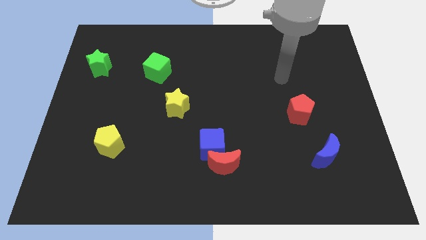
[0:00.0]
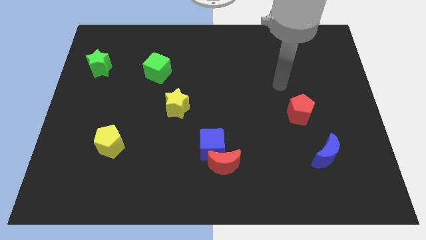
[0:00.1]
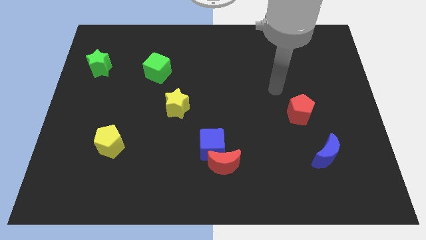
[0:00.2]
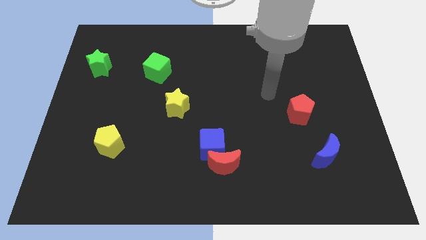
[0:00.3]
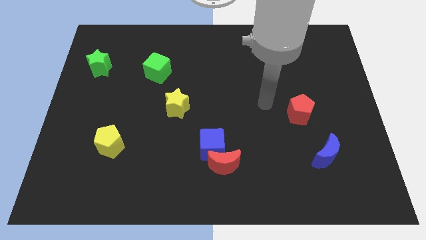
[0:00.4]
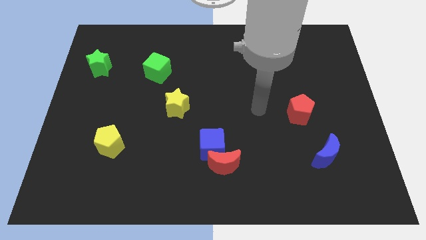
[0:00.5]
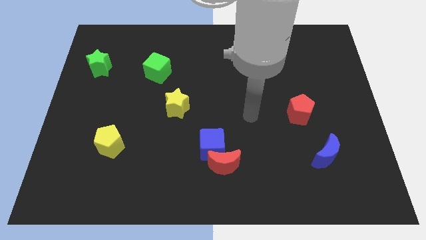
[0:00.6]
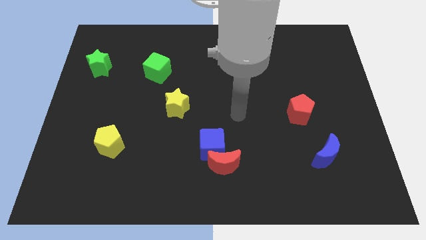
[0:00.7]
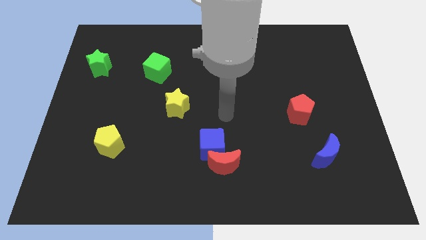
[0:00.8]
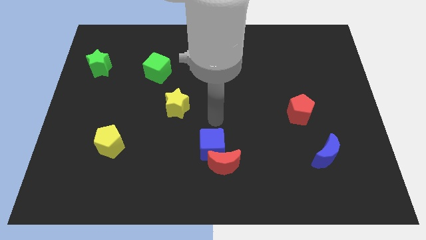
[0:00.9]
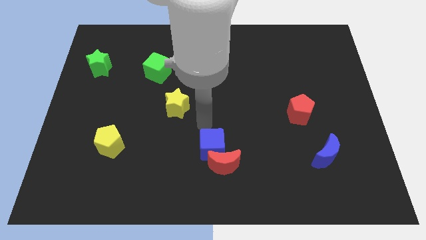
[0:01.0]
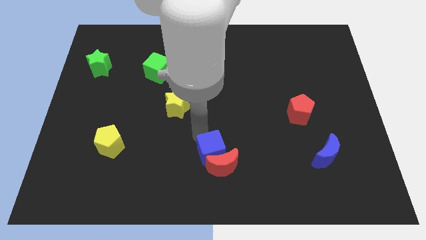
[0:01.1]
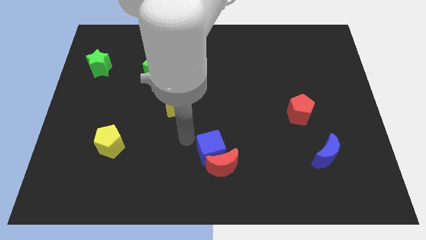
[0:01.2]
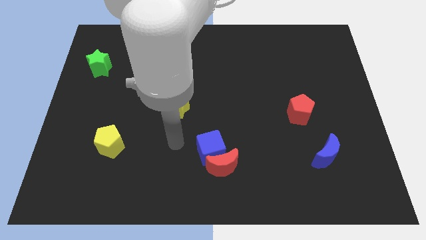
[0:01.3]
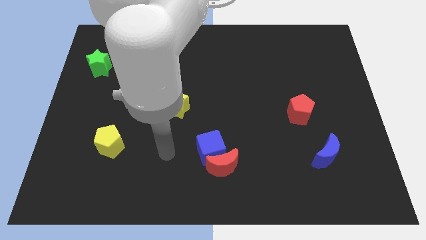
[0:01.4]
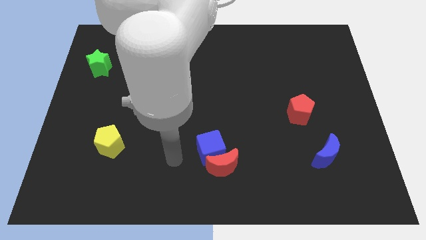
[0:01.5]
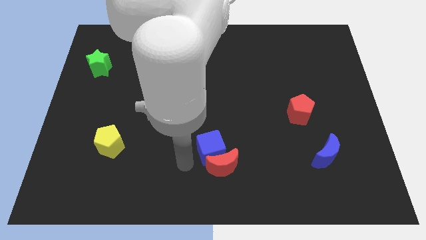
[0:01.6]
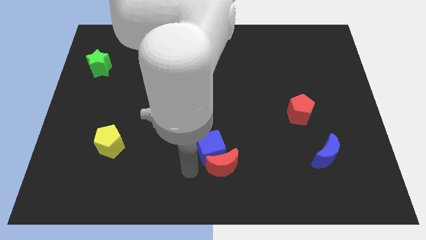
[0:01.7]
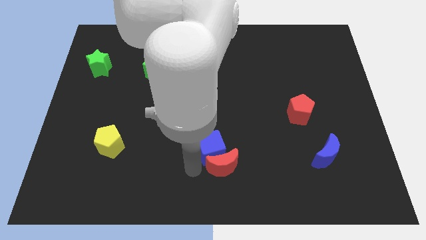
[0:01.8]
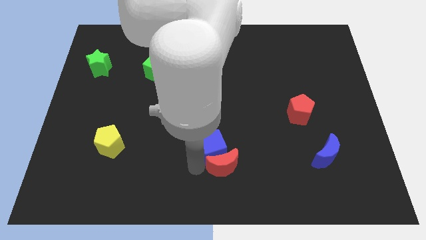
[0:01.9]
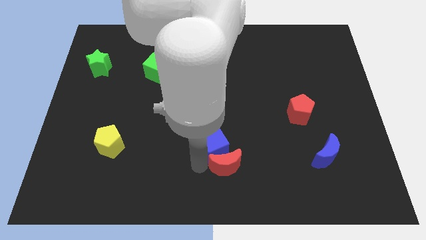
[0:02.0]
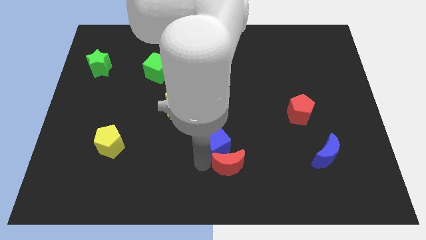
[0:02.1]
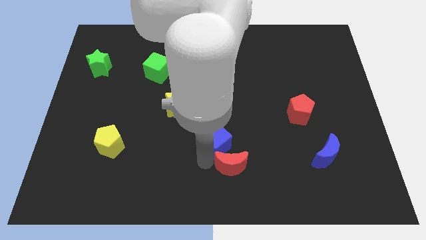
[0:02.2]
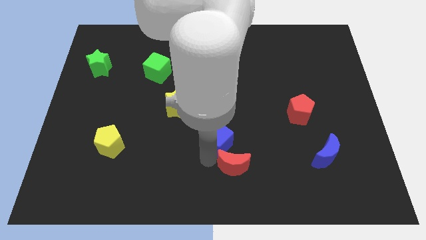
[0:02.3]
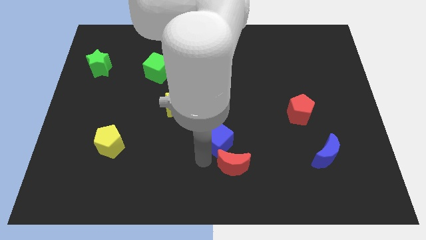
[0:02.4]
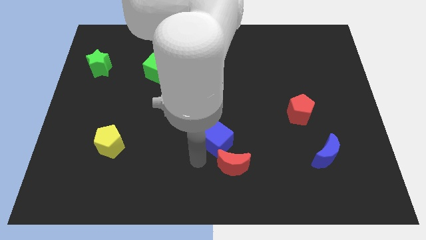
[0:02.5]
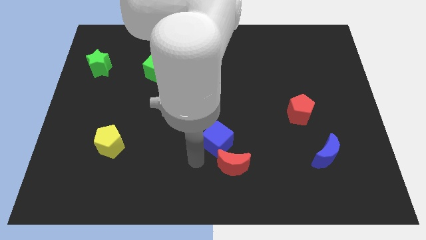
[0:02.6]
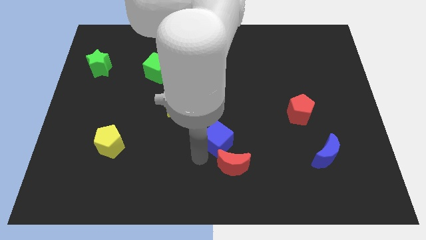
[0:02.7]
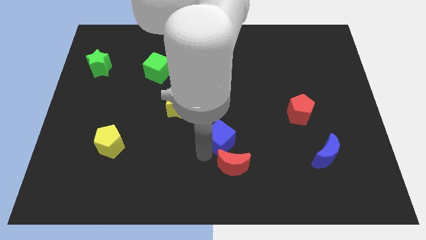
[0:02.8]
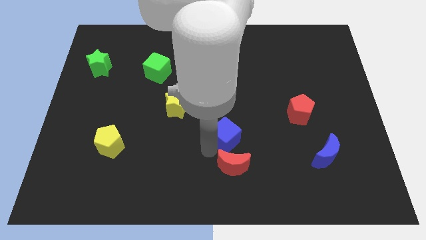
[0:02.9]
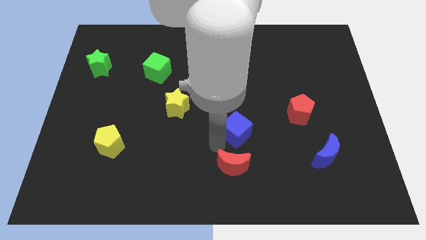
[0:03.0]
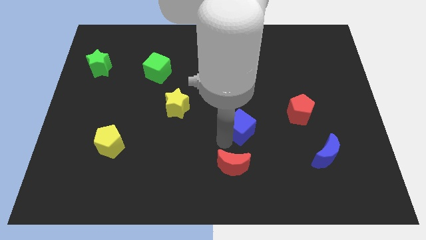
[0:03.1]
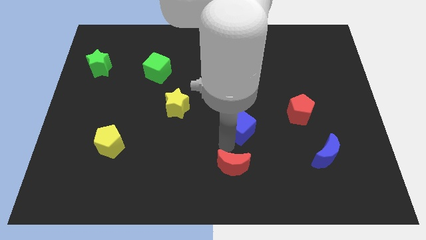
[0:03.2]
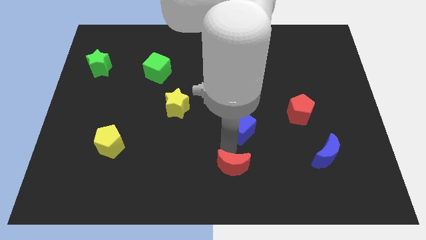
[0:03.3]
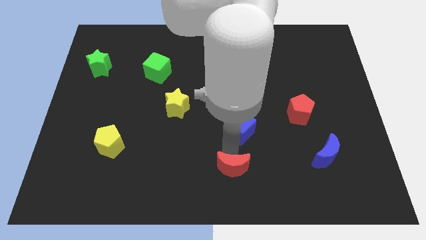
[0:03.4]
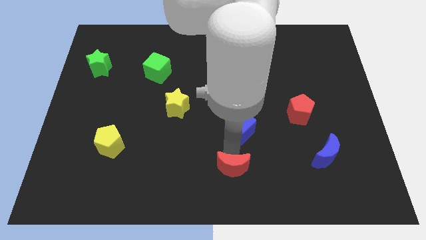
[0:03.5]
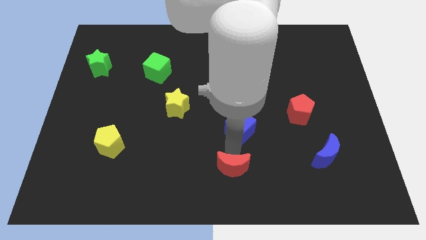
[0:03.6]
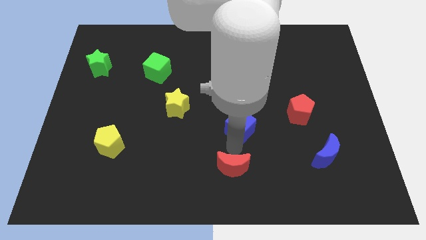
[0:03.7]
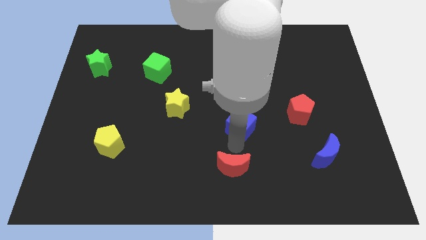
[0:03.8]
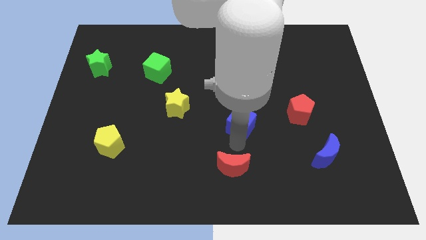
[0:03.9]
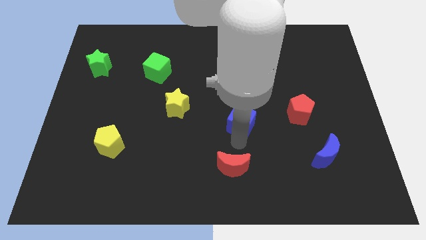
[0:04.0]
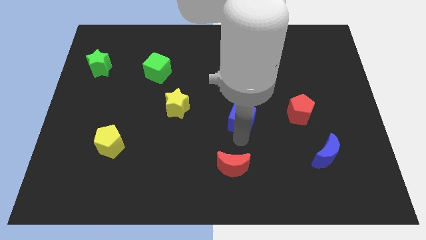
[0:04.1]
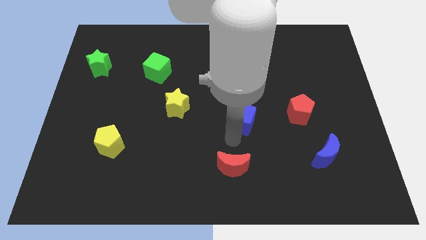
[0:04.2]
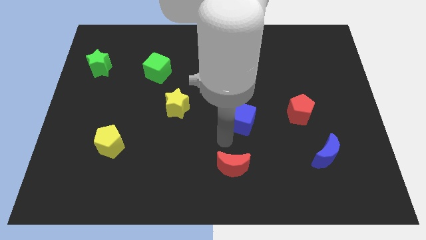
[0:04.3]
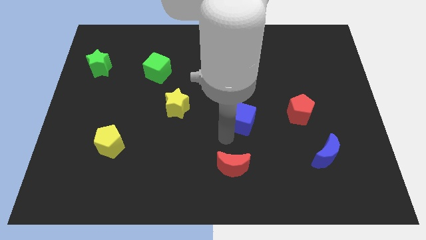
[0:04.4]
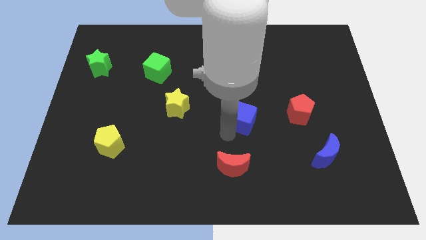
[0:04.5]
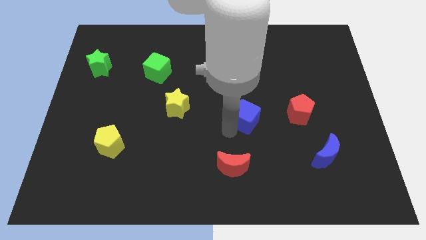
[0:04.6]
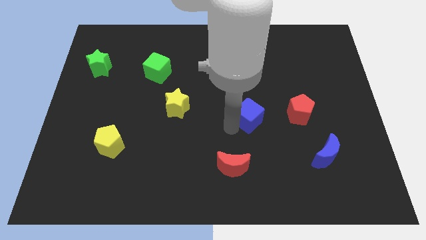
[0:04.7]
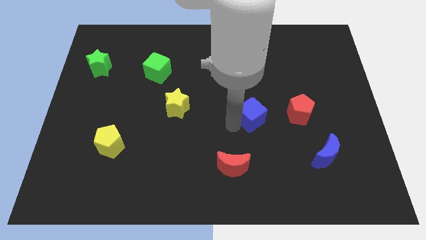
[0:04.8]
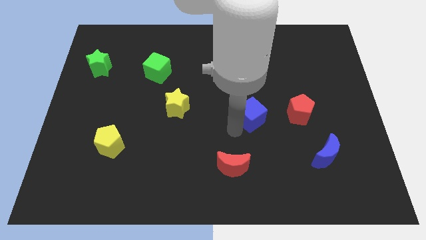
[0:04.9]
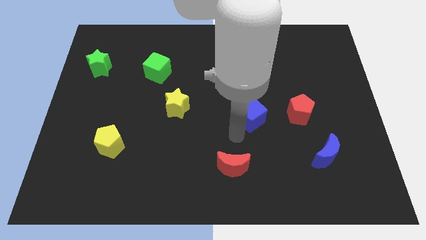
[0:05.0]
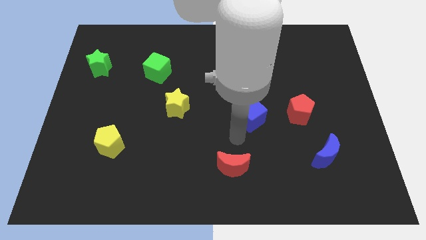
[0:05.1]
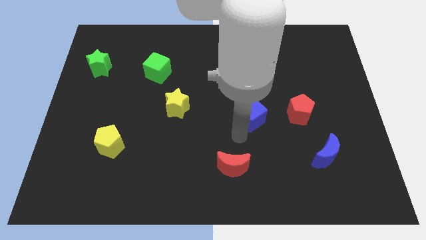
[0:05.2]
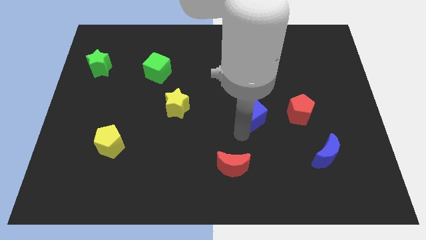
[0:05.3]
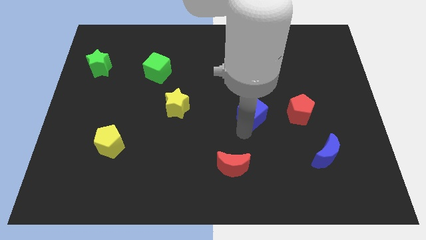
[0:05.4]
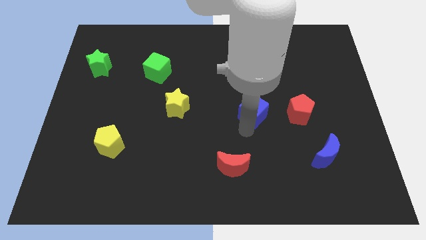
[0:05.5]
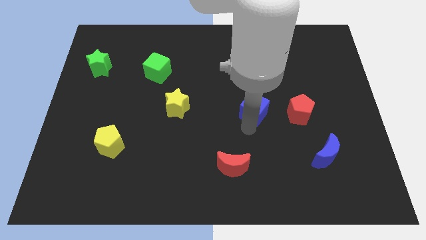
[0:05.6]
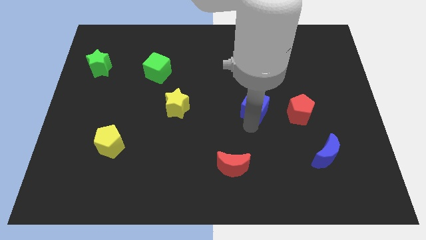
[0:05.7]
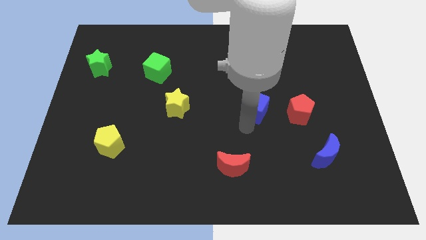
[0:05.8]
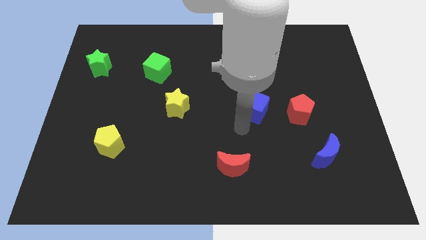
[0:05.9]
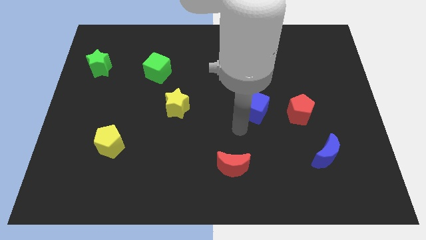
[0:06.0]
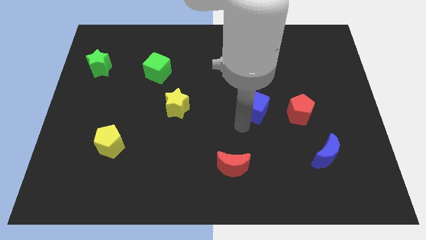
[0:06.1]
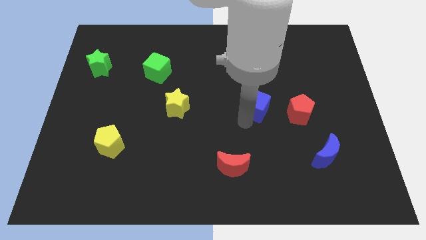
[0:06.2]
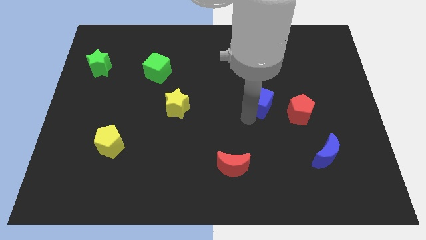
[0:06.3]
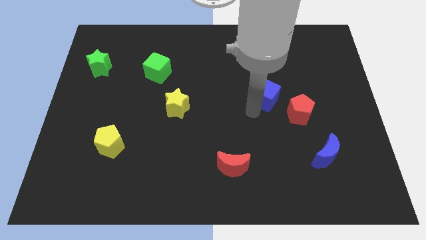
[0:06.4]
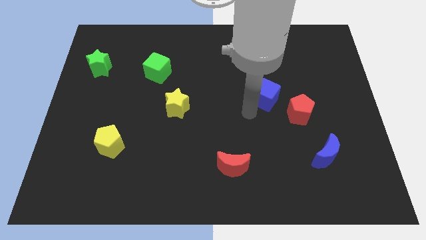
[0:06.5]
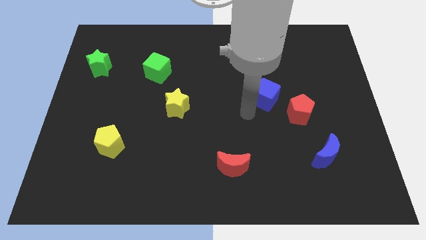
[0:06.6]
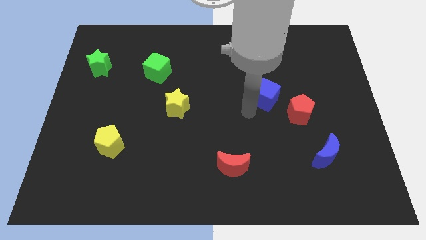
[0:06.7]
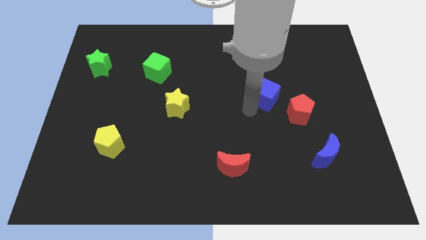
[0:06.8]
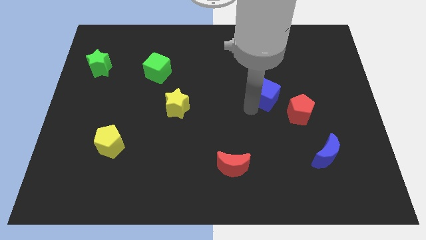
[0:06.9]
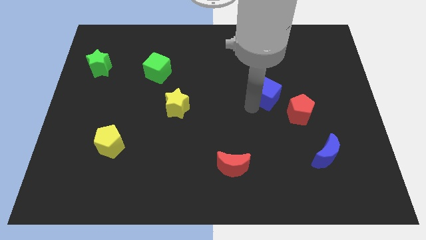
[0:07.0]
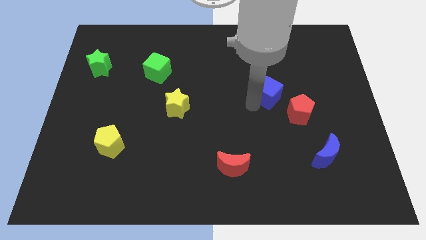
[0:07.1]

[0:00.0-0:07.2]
slide the blue cube diagonally upwards and right

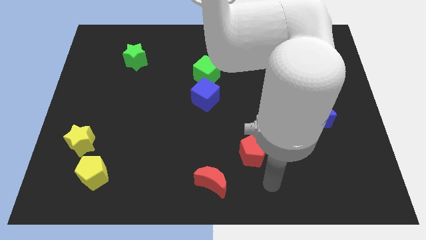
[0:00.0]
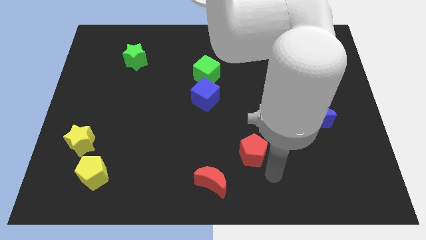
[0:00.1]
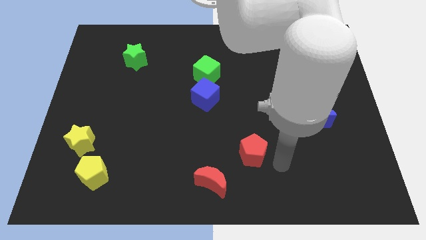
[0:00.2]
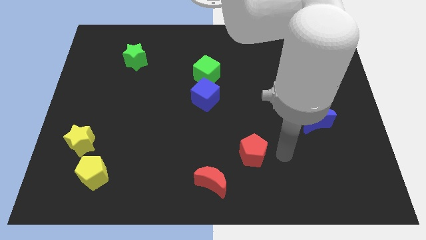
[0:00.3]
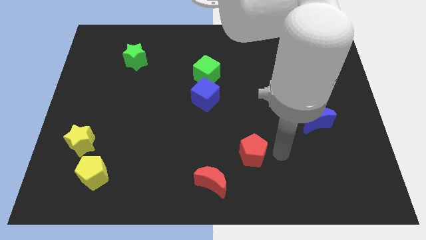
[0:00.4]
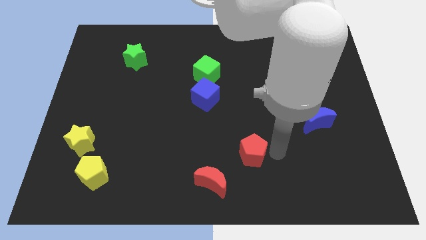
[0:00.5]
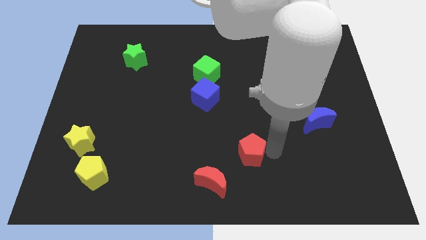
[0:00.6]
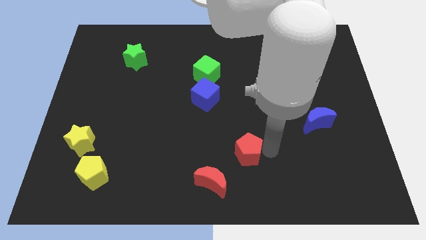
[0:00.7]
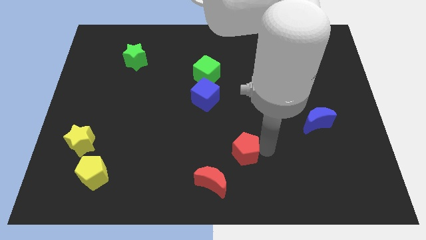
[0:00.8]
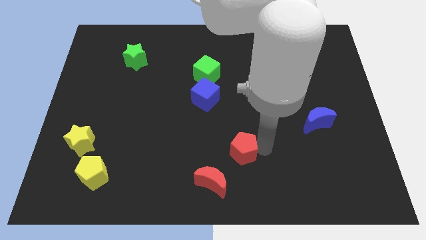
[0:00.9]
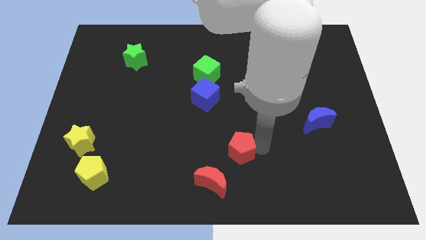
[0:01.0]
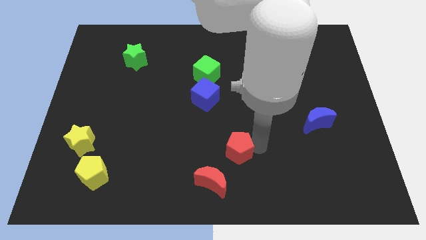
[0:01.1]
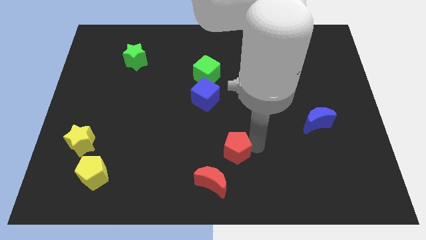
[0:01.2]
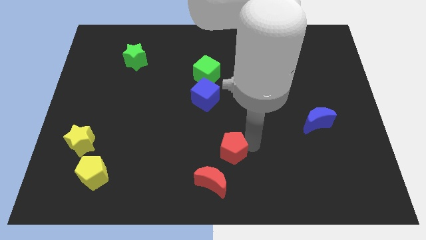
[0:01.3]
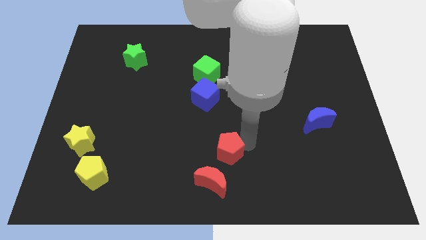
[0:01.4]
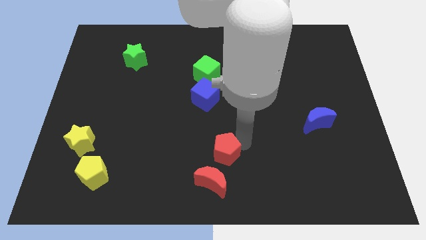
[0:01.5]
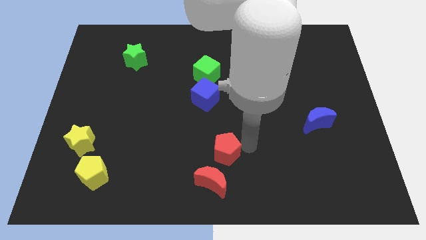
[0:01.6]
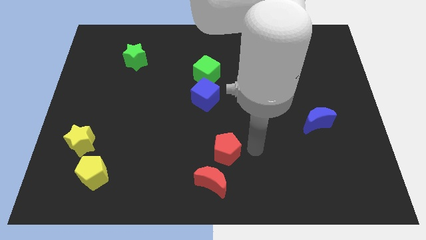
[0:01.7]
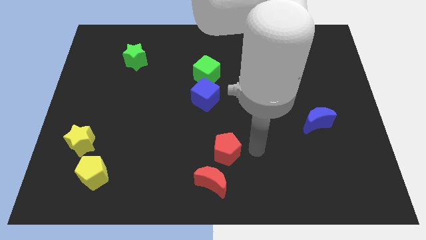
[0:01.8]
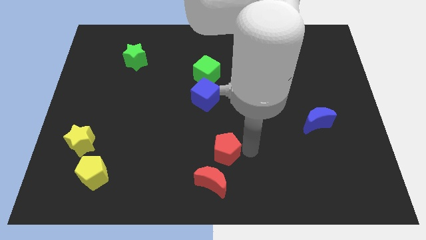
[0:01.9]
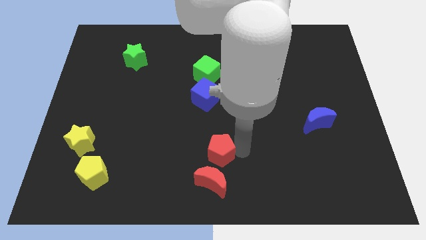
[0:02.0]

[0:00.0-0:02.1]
slide the red pentagon a little bit to the left
